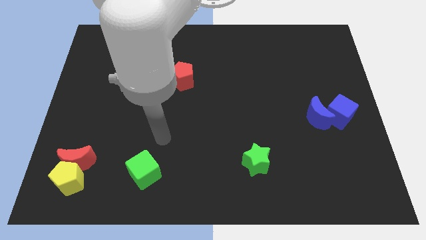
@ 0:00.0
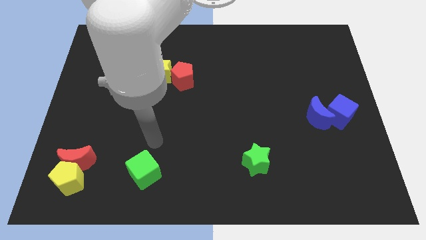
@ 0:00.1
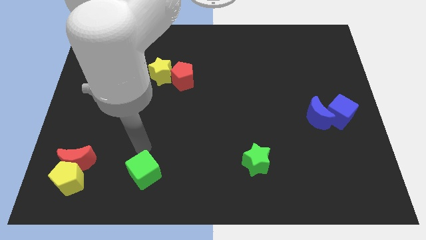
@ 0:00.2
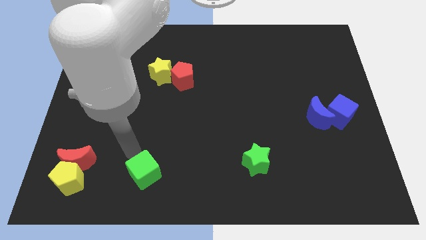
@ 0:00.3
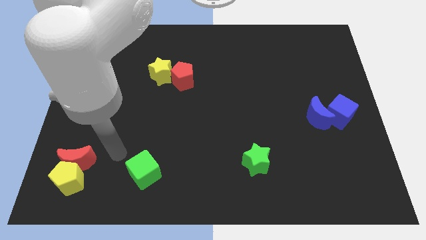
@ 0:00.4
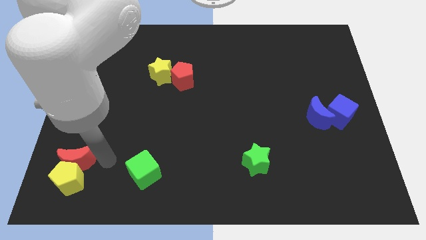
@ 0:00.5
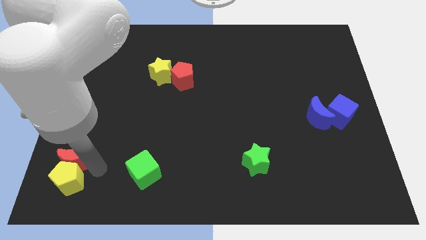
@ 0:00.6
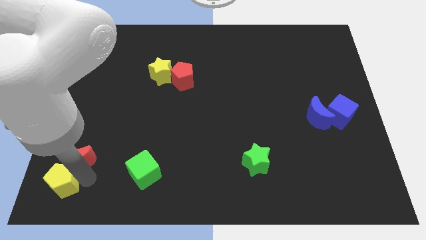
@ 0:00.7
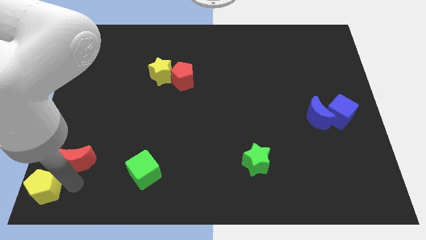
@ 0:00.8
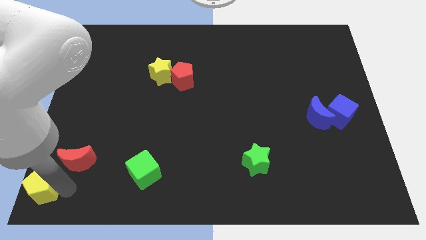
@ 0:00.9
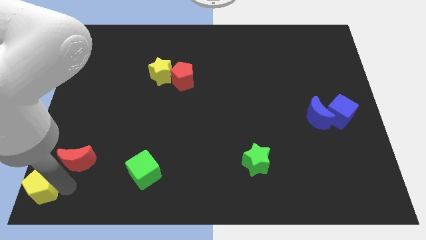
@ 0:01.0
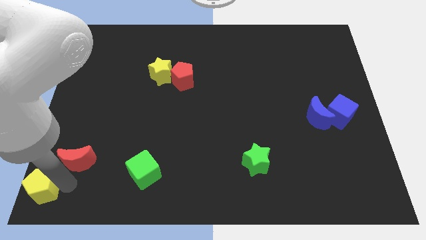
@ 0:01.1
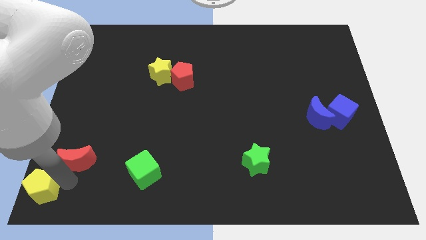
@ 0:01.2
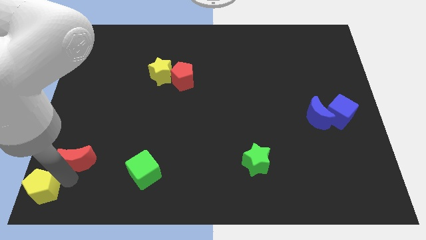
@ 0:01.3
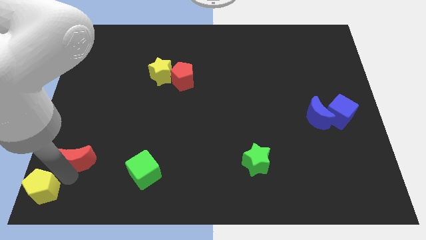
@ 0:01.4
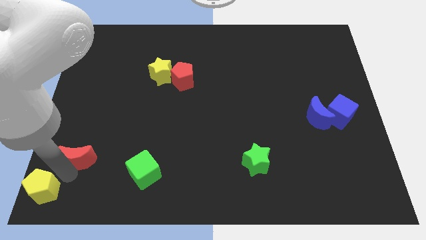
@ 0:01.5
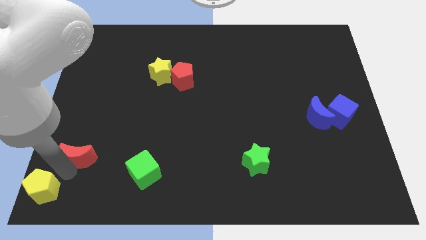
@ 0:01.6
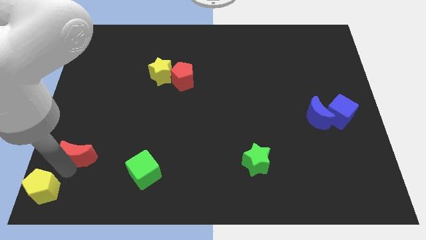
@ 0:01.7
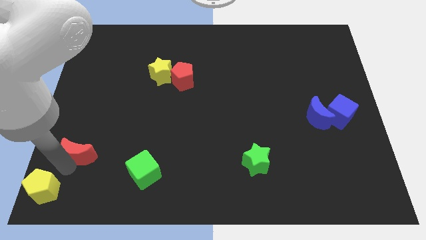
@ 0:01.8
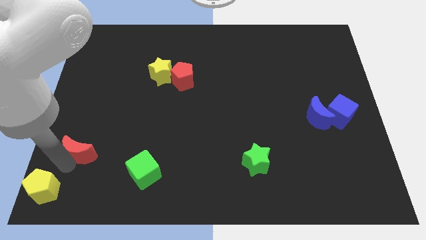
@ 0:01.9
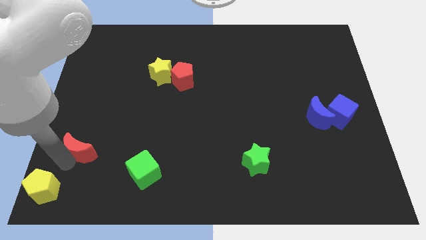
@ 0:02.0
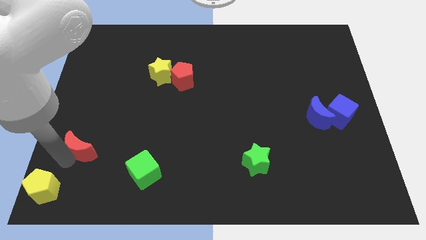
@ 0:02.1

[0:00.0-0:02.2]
separate the red moon from the yellow pentagon

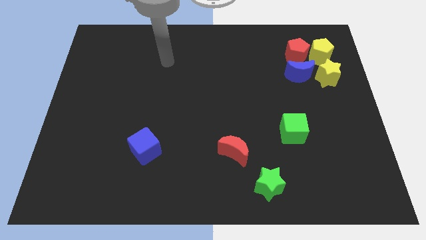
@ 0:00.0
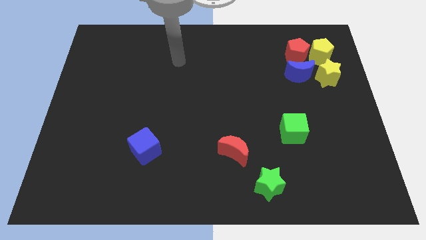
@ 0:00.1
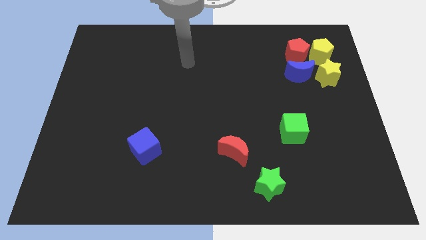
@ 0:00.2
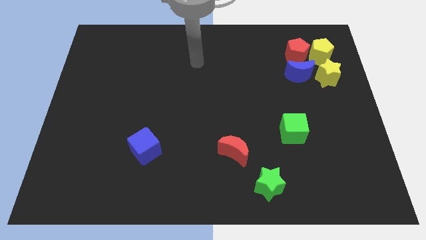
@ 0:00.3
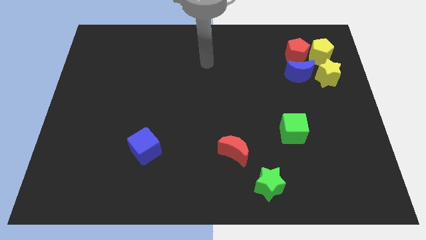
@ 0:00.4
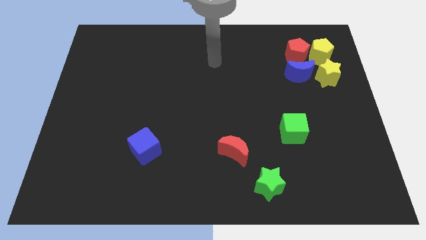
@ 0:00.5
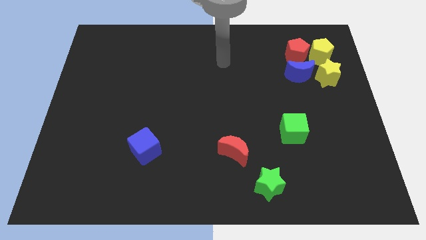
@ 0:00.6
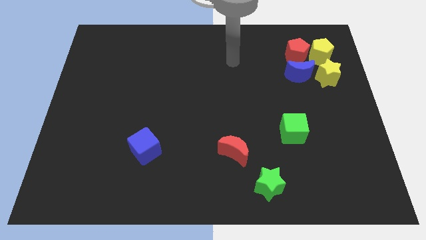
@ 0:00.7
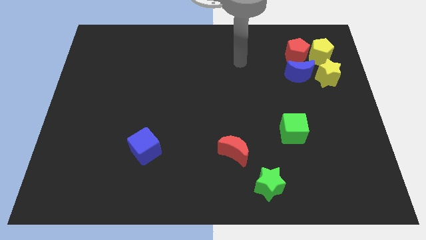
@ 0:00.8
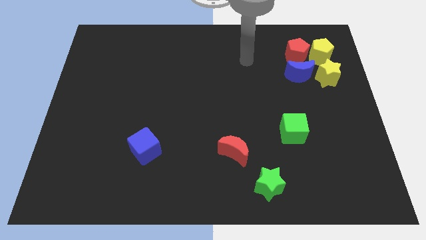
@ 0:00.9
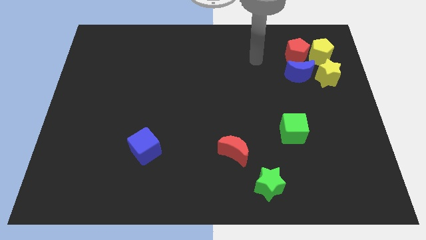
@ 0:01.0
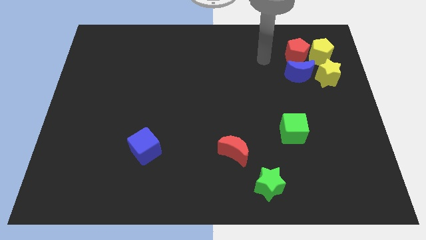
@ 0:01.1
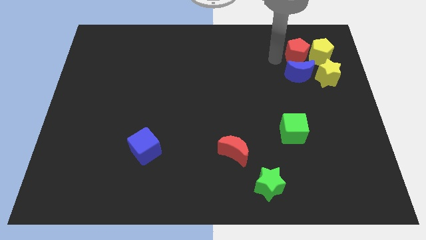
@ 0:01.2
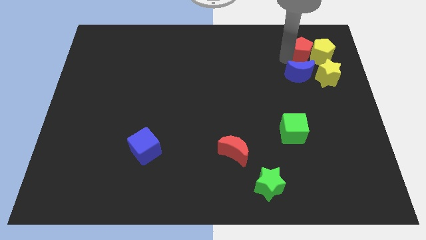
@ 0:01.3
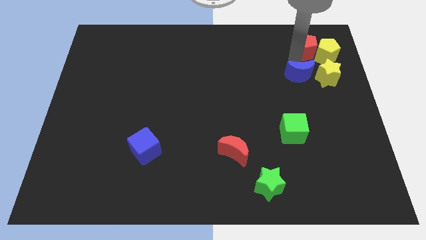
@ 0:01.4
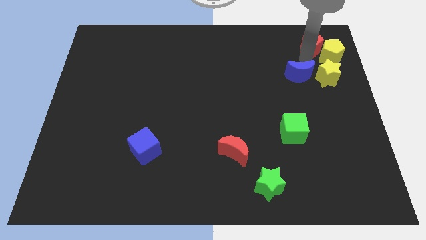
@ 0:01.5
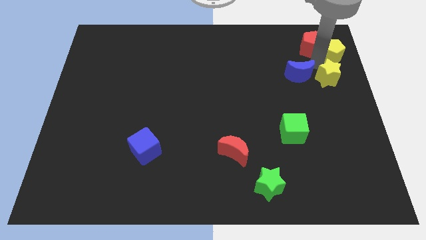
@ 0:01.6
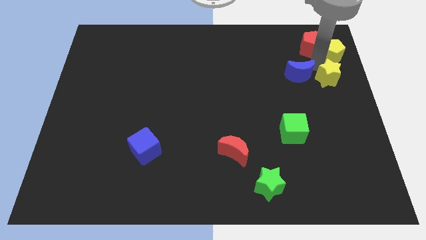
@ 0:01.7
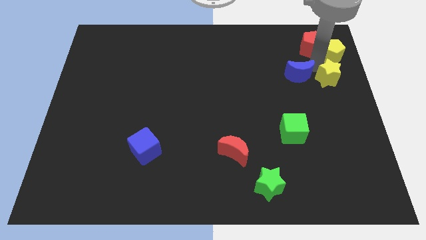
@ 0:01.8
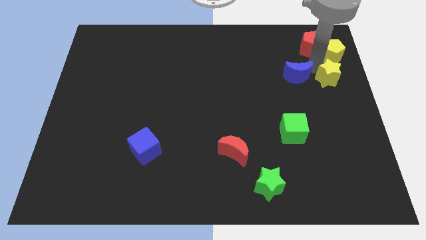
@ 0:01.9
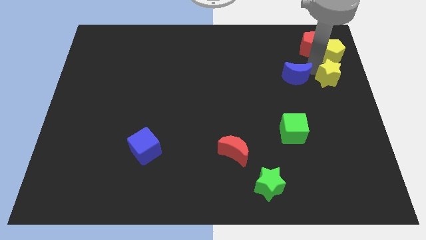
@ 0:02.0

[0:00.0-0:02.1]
separate the blue moon from the yellow star, red pentagon, and yellow pentagon

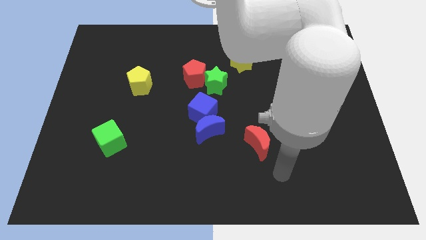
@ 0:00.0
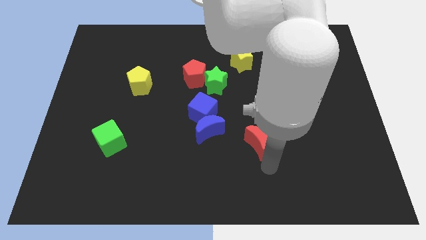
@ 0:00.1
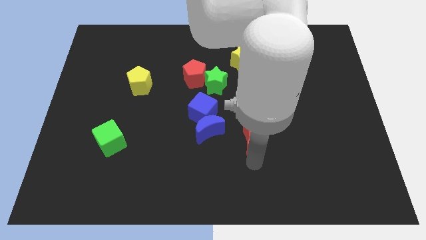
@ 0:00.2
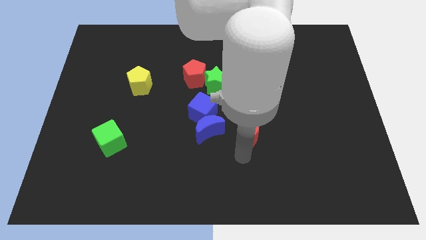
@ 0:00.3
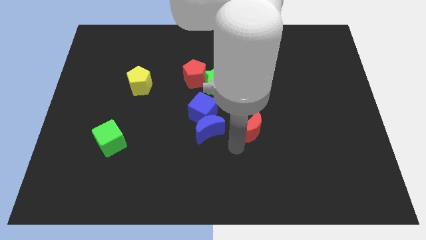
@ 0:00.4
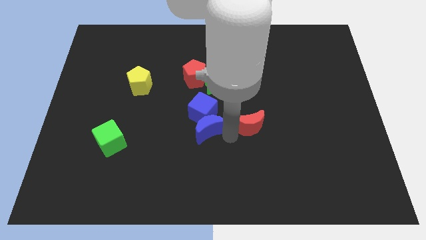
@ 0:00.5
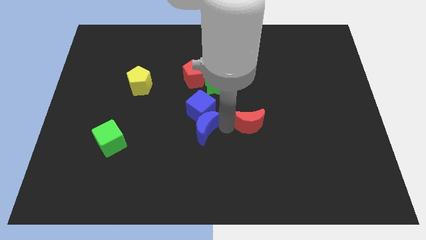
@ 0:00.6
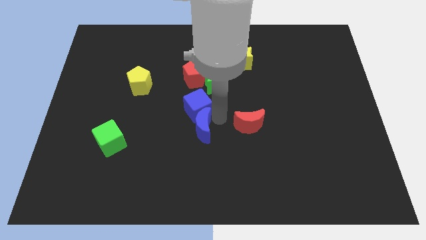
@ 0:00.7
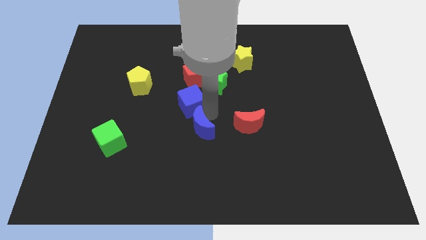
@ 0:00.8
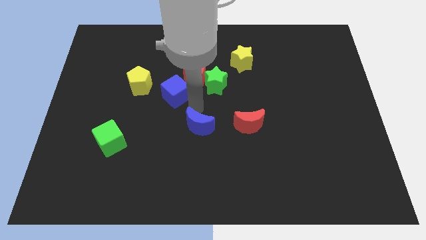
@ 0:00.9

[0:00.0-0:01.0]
move the blue moon away from the blue cube

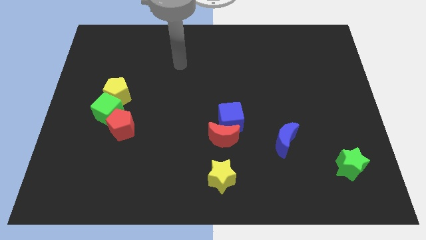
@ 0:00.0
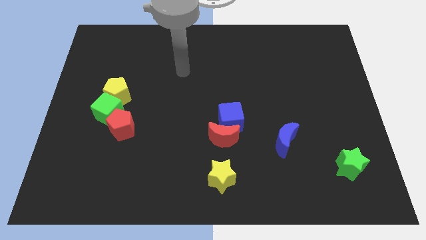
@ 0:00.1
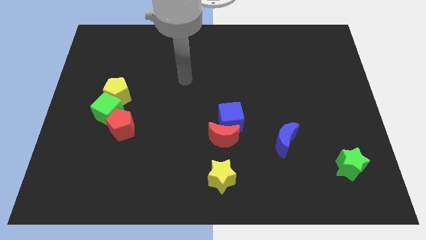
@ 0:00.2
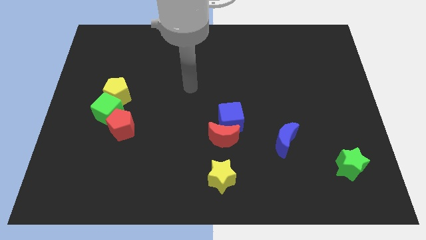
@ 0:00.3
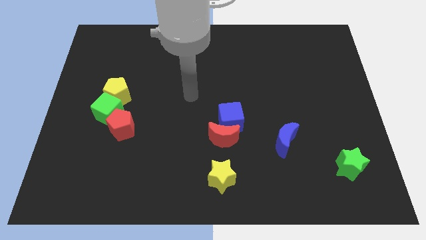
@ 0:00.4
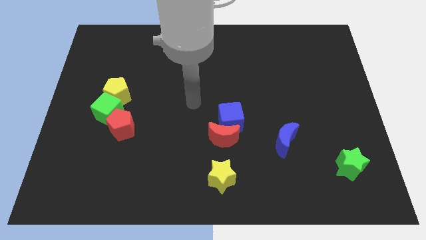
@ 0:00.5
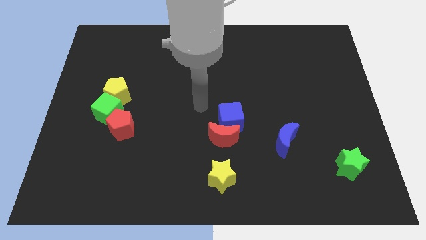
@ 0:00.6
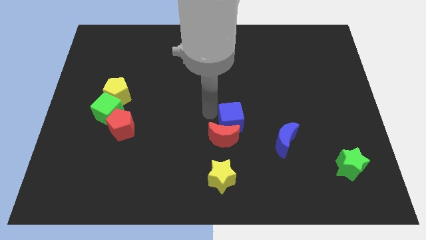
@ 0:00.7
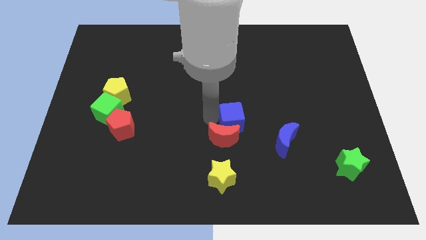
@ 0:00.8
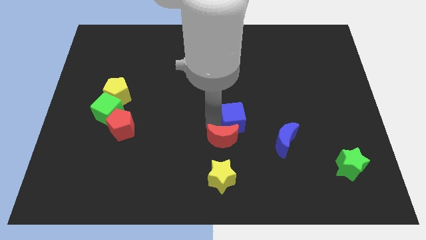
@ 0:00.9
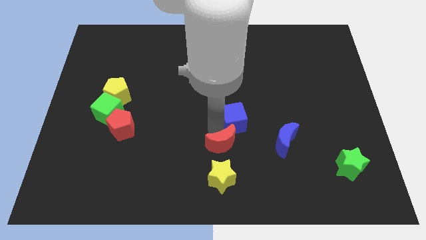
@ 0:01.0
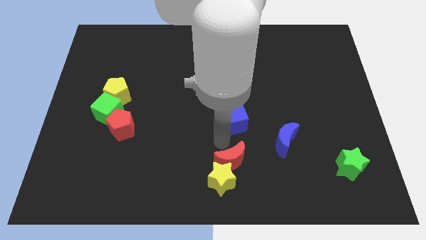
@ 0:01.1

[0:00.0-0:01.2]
move the blue cube away from the red moon

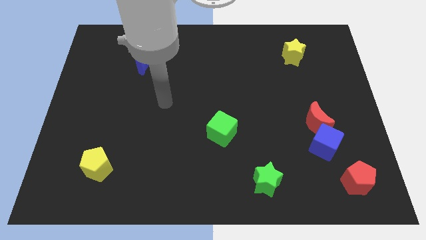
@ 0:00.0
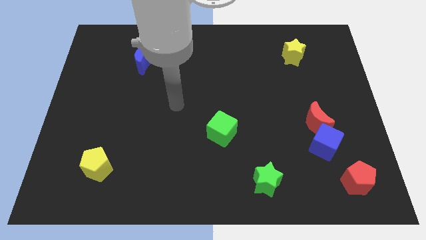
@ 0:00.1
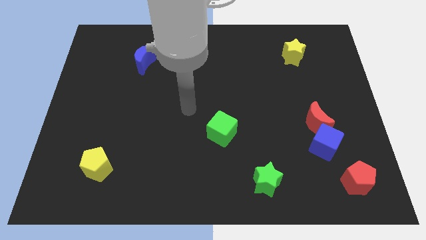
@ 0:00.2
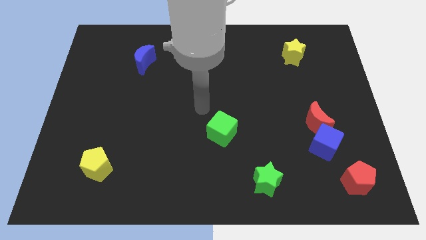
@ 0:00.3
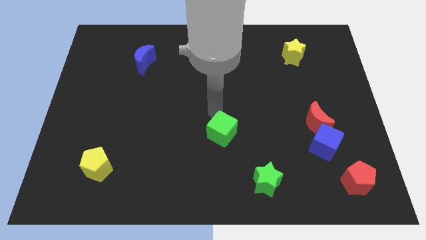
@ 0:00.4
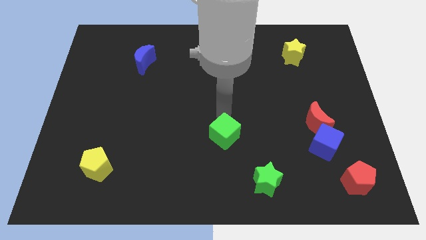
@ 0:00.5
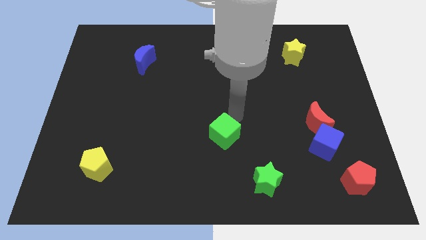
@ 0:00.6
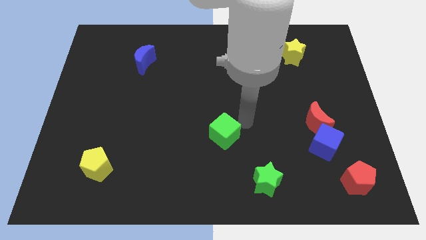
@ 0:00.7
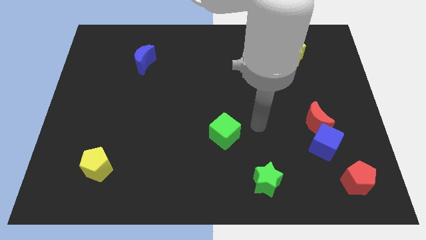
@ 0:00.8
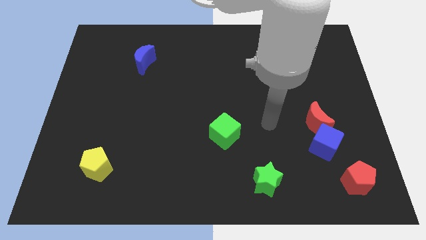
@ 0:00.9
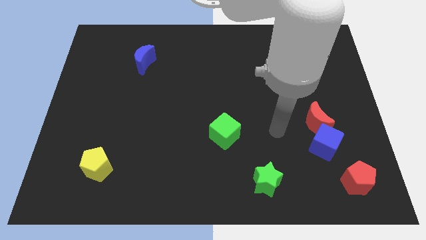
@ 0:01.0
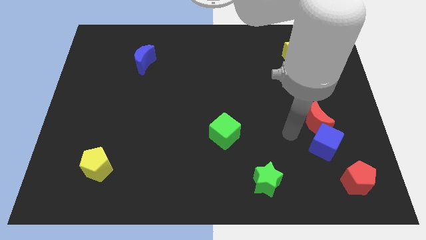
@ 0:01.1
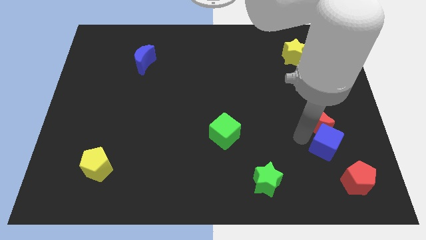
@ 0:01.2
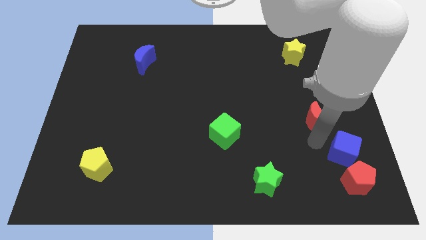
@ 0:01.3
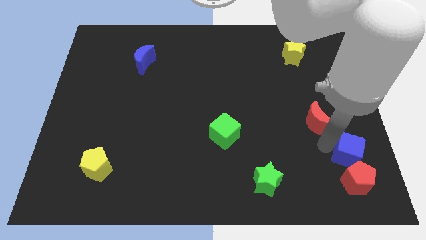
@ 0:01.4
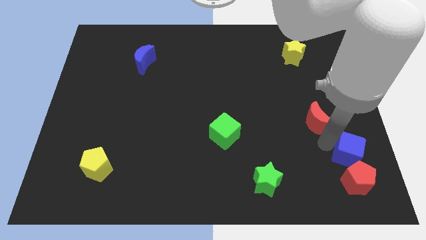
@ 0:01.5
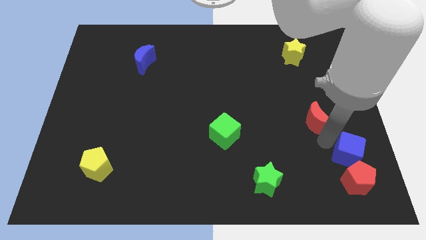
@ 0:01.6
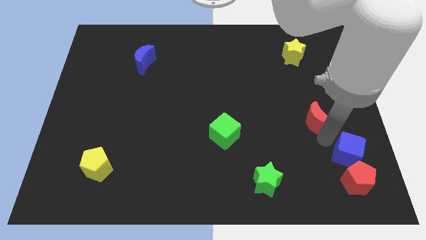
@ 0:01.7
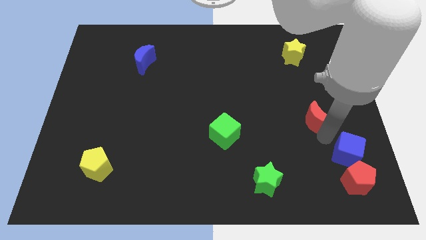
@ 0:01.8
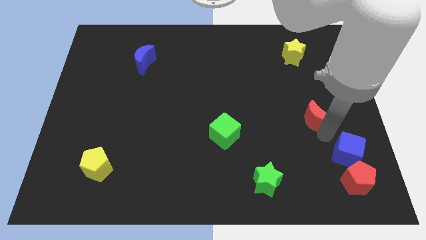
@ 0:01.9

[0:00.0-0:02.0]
separate the red moon from the blue cube

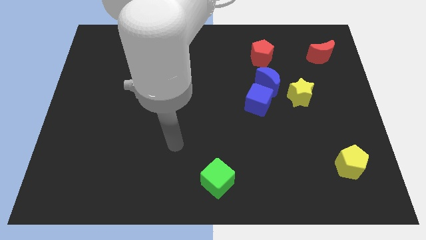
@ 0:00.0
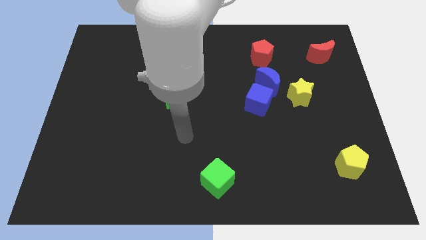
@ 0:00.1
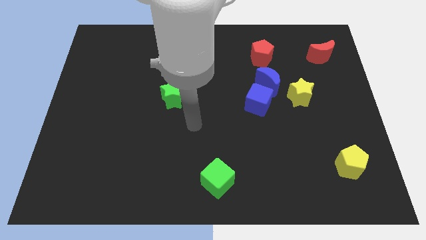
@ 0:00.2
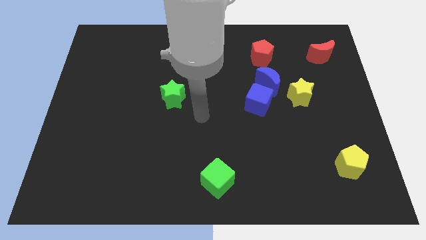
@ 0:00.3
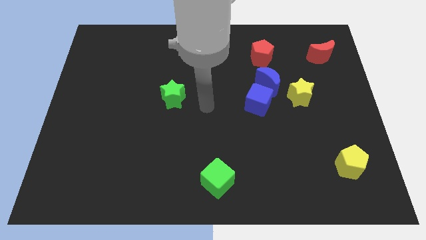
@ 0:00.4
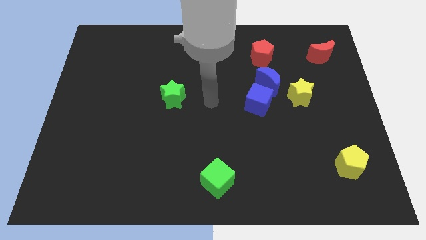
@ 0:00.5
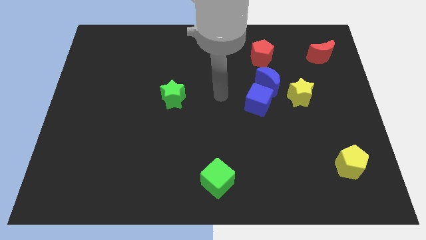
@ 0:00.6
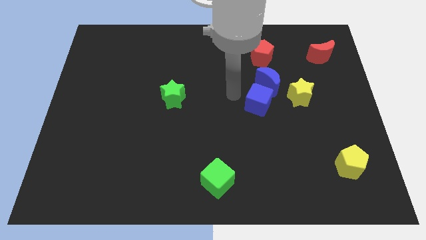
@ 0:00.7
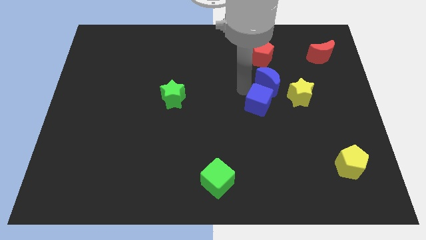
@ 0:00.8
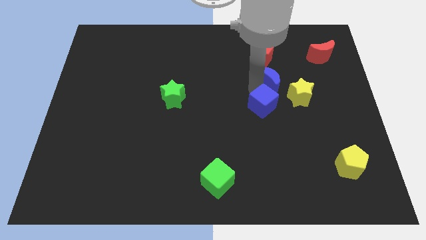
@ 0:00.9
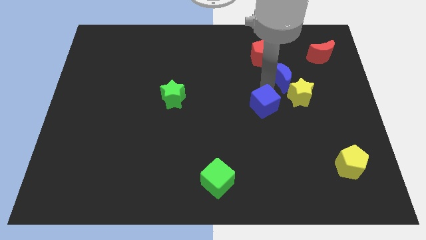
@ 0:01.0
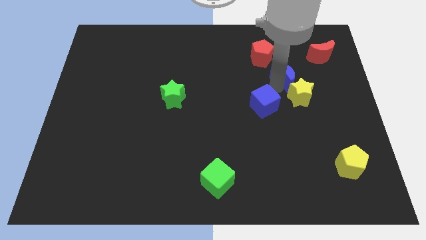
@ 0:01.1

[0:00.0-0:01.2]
separate the blue cube from the blue moon
